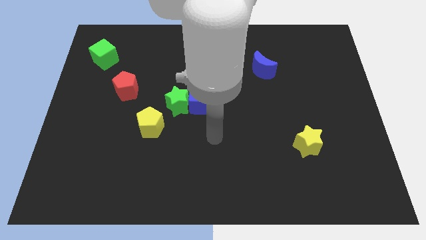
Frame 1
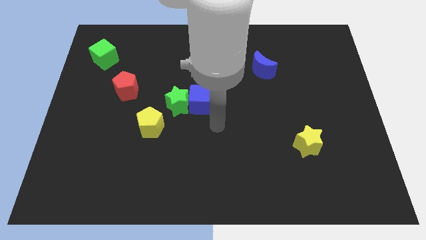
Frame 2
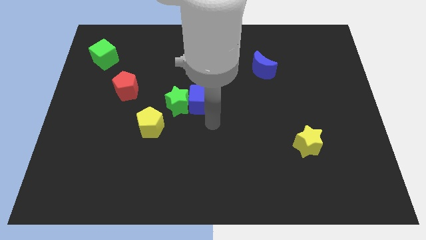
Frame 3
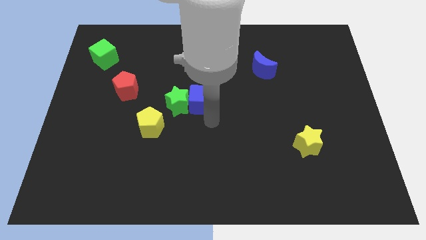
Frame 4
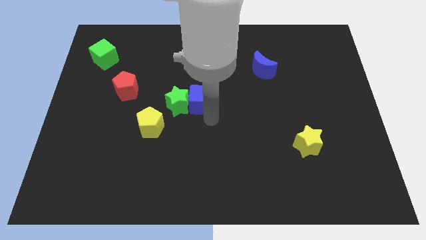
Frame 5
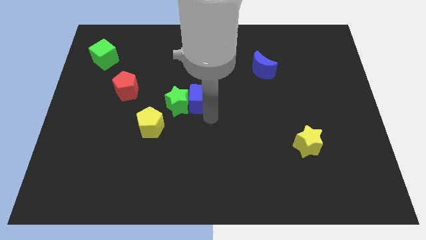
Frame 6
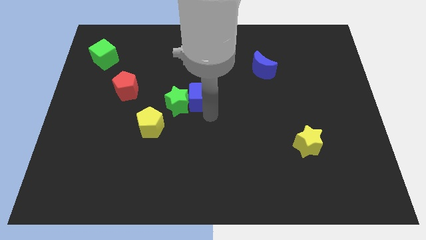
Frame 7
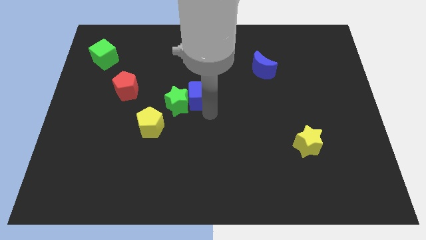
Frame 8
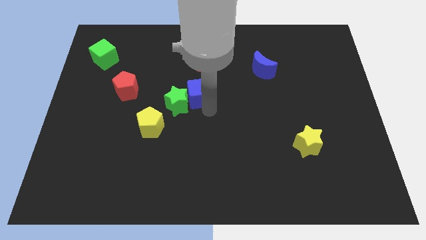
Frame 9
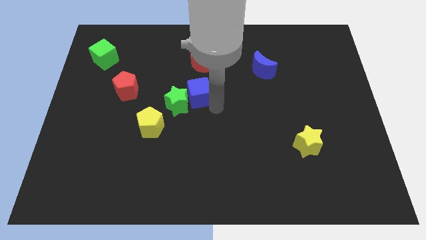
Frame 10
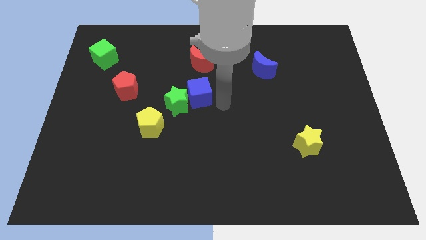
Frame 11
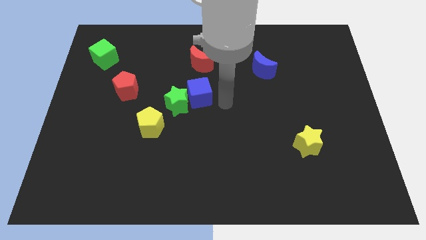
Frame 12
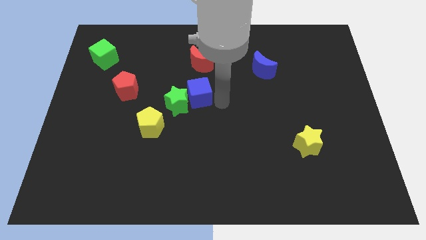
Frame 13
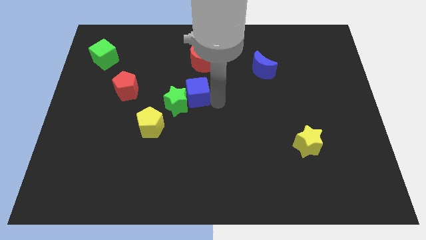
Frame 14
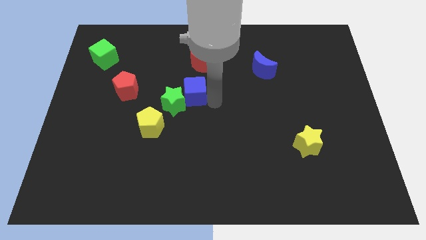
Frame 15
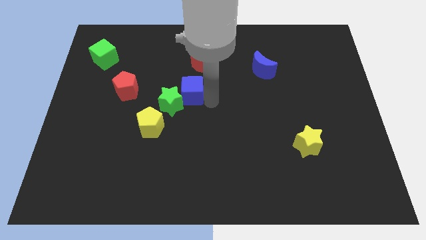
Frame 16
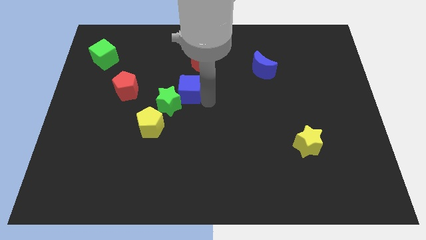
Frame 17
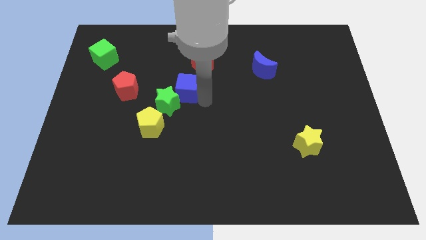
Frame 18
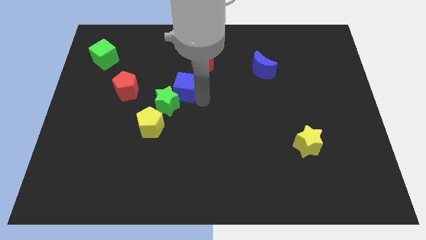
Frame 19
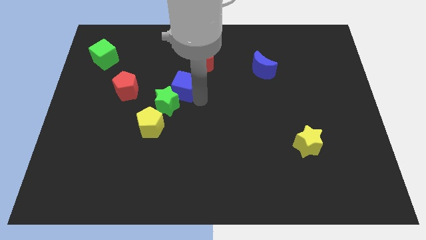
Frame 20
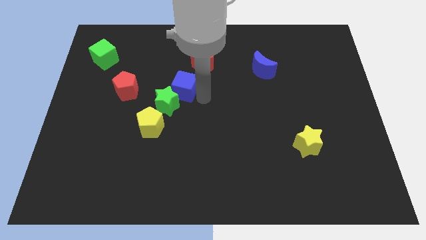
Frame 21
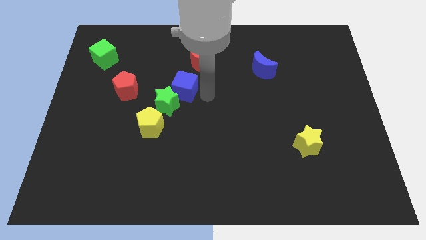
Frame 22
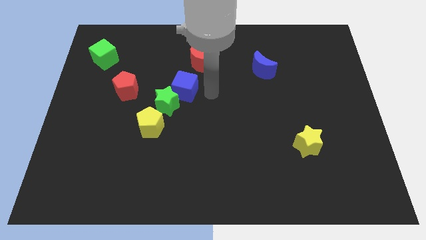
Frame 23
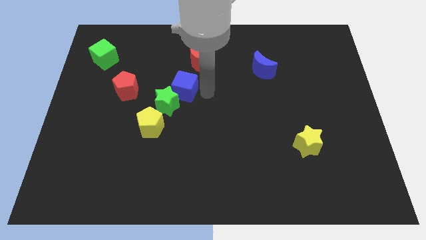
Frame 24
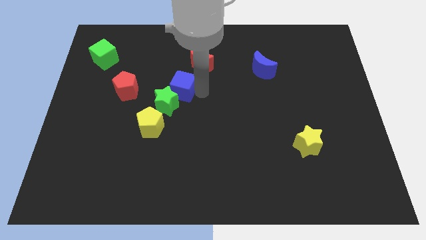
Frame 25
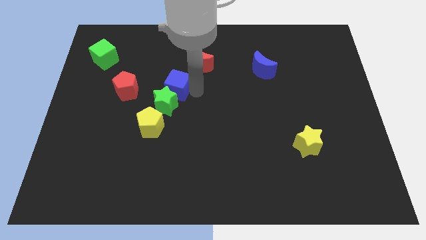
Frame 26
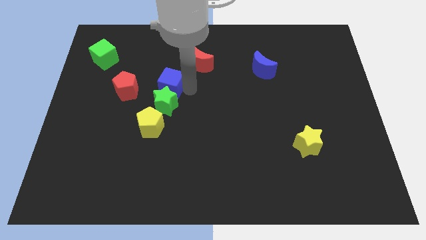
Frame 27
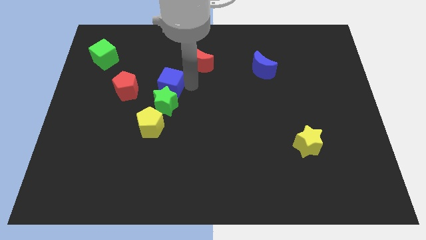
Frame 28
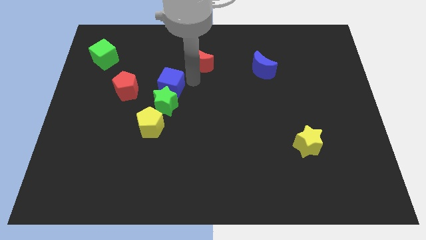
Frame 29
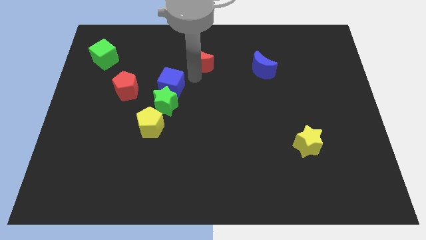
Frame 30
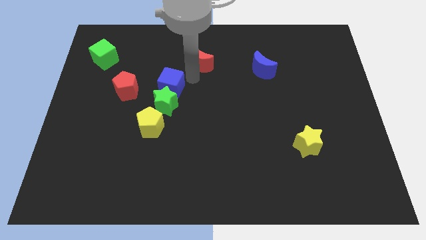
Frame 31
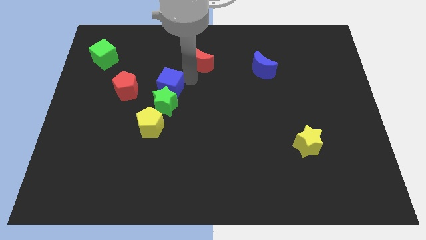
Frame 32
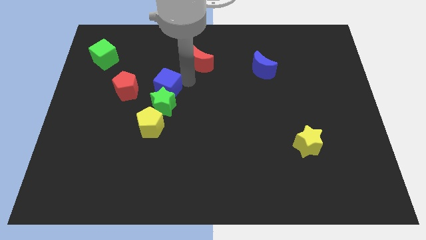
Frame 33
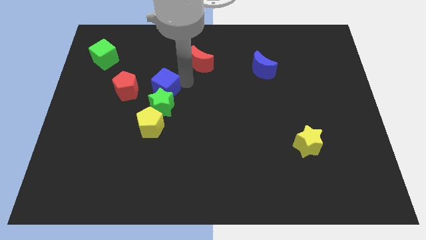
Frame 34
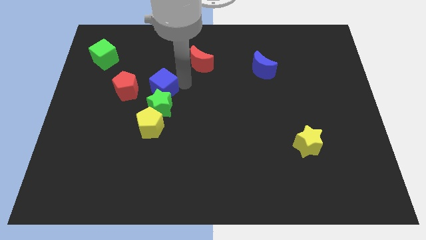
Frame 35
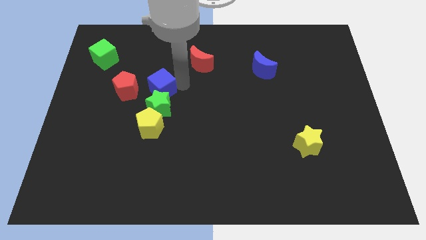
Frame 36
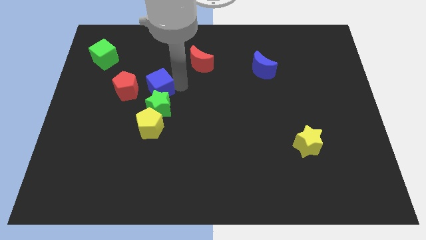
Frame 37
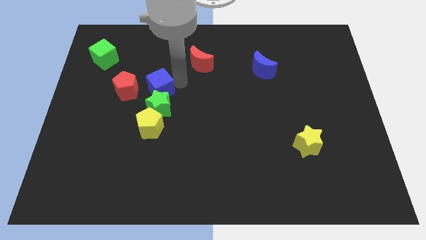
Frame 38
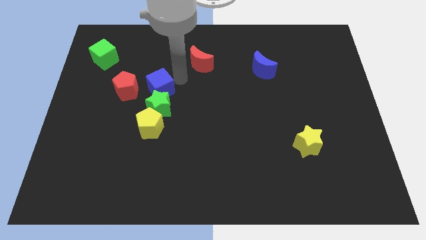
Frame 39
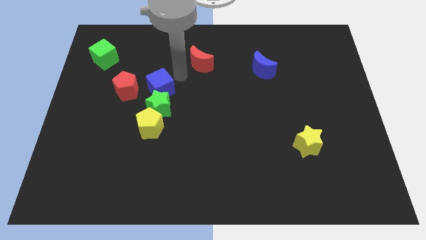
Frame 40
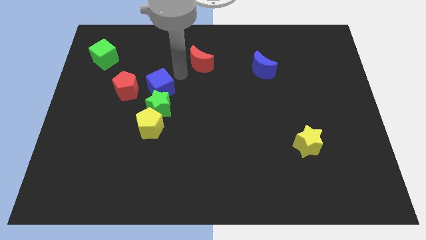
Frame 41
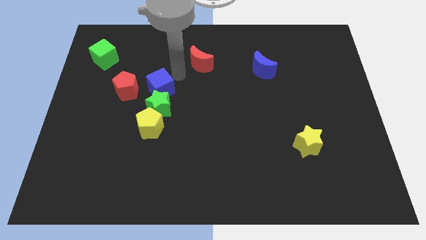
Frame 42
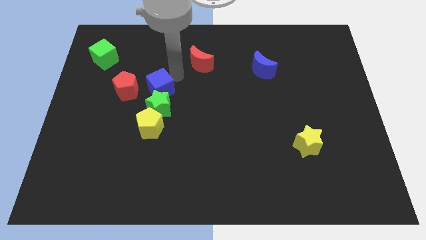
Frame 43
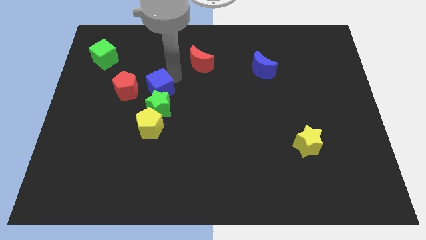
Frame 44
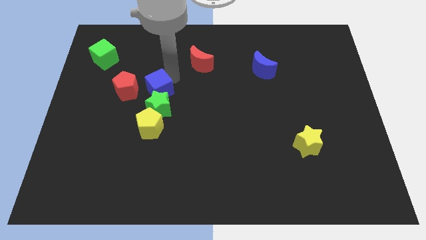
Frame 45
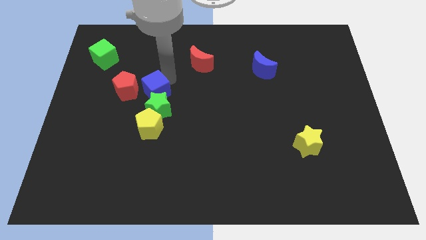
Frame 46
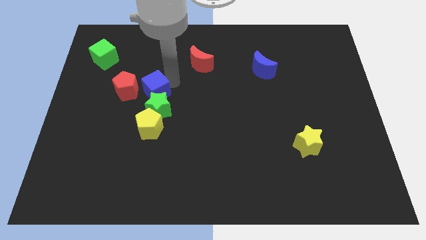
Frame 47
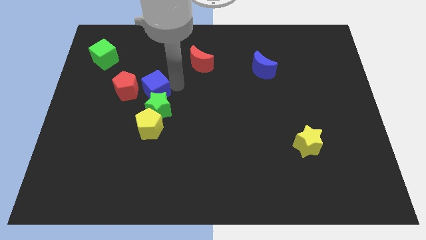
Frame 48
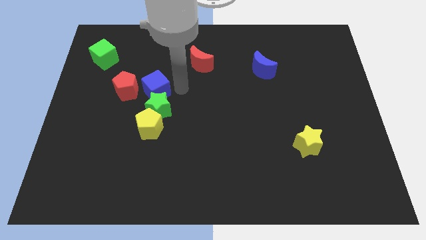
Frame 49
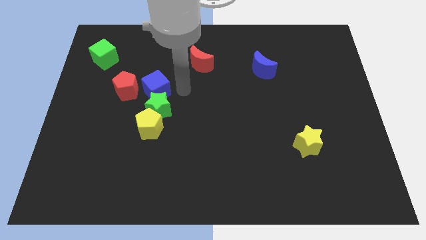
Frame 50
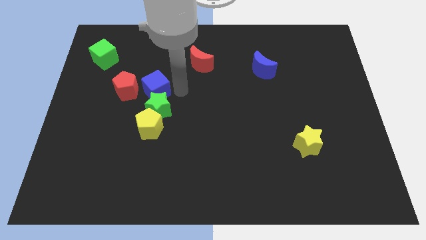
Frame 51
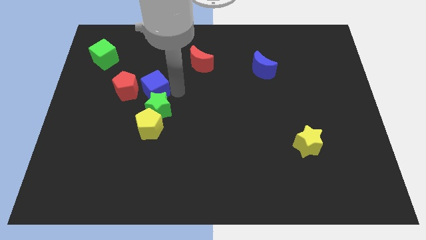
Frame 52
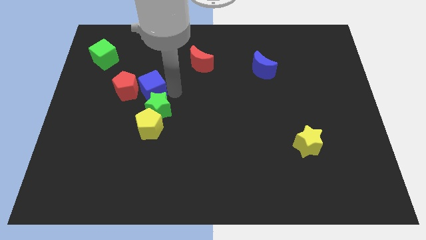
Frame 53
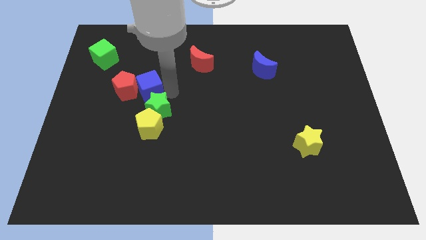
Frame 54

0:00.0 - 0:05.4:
put the blue cube towards the red pentagon

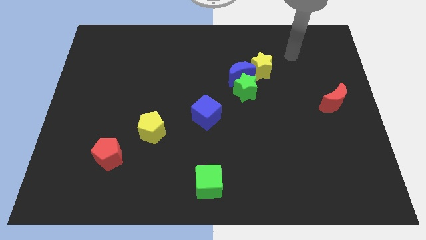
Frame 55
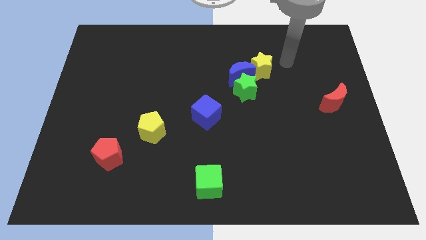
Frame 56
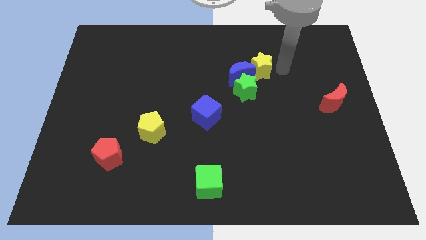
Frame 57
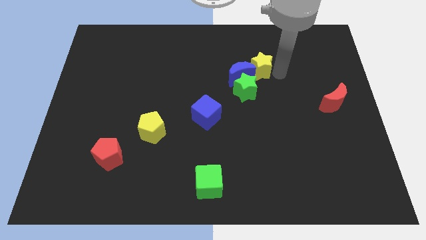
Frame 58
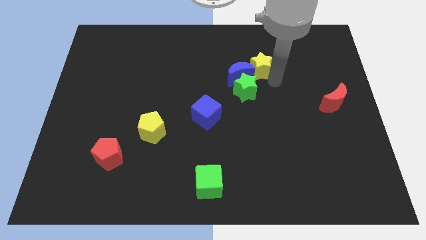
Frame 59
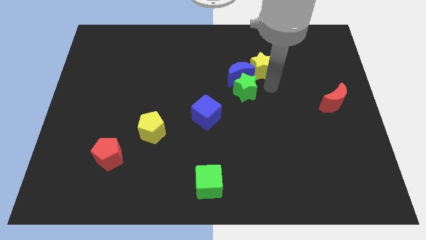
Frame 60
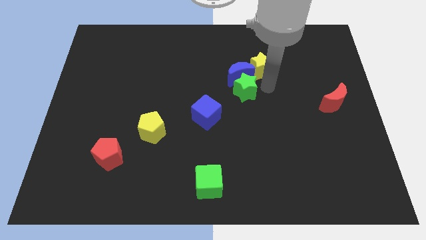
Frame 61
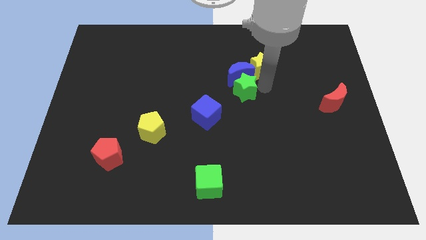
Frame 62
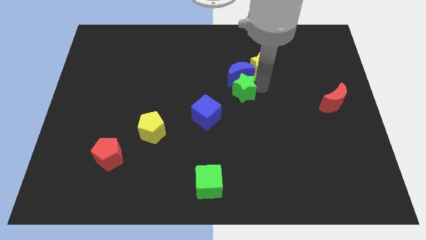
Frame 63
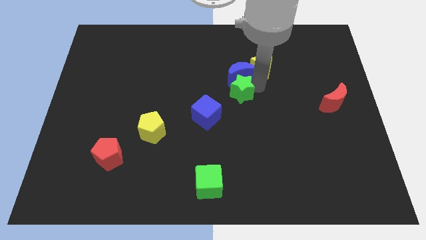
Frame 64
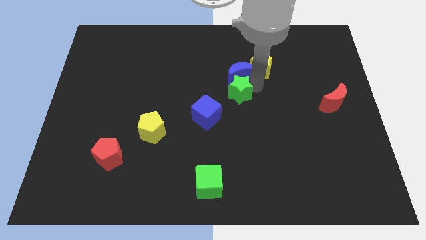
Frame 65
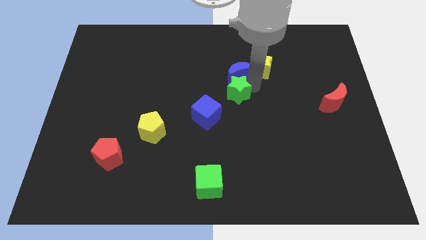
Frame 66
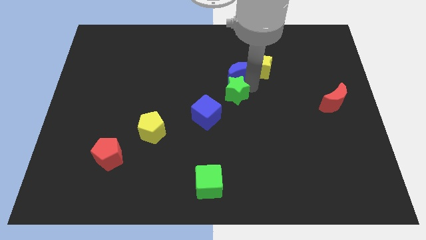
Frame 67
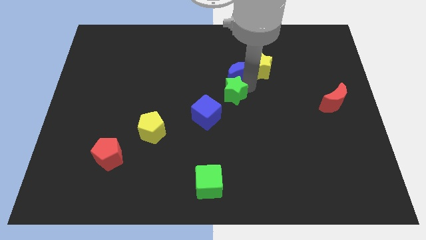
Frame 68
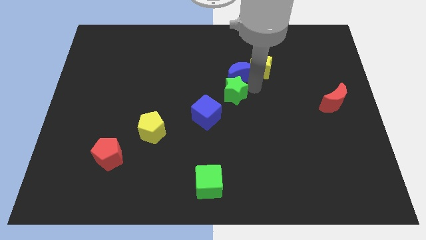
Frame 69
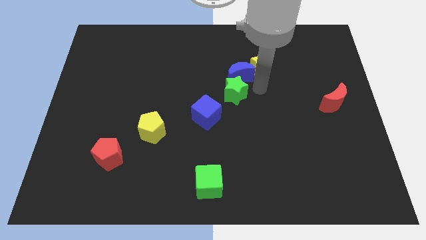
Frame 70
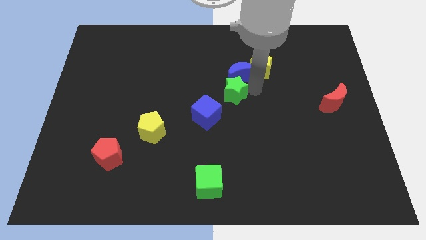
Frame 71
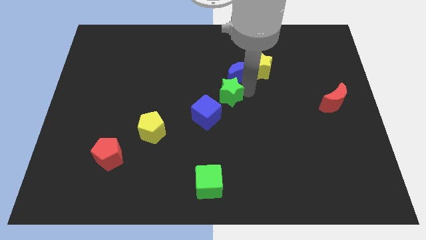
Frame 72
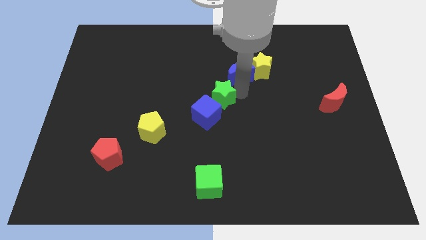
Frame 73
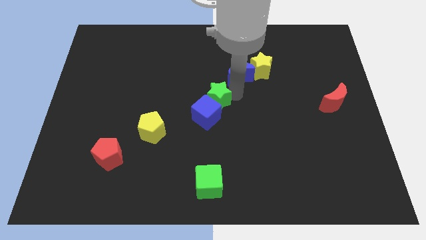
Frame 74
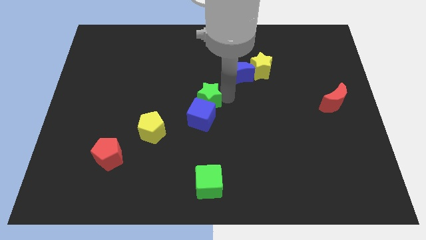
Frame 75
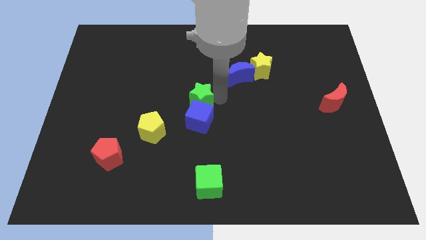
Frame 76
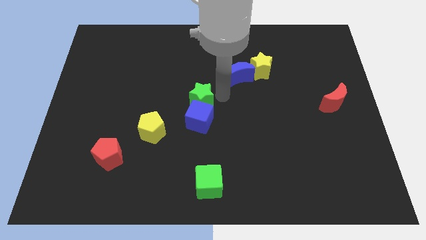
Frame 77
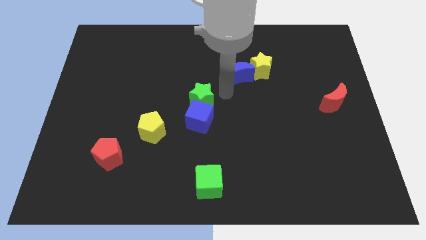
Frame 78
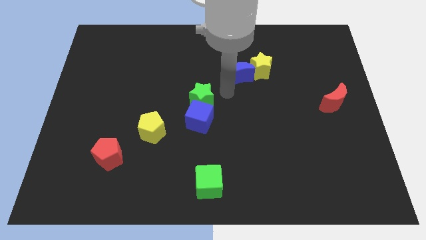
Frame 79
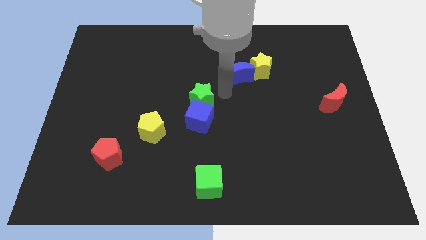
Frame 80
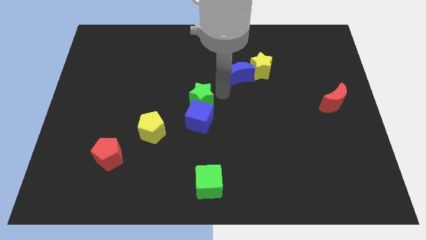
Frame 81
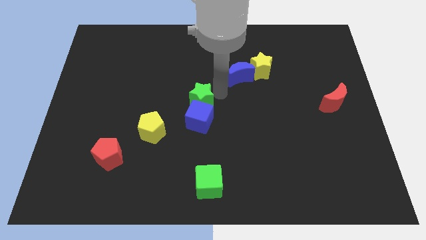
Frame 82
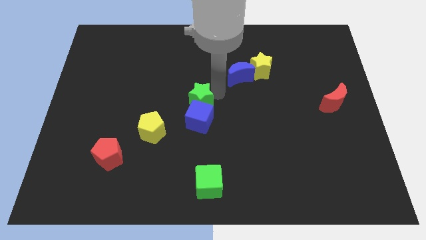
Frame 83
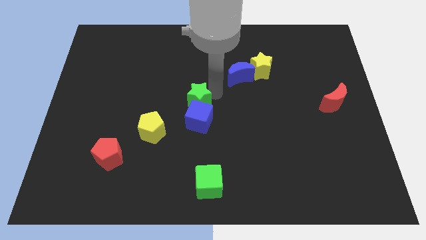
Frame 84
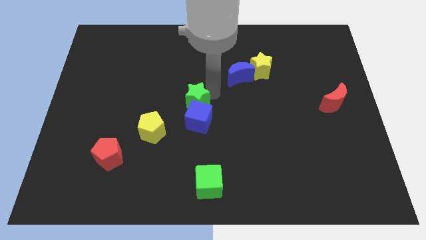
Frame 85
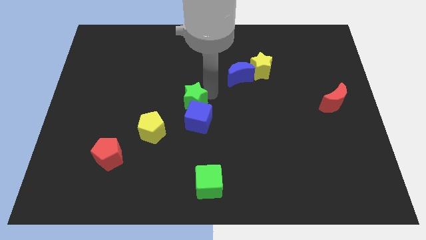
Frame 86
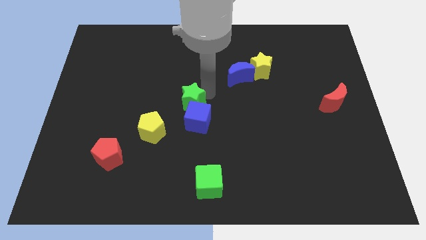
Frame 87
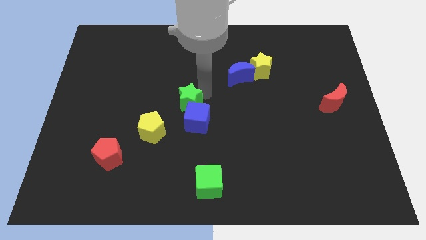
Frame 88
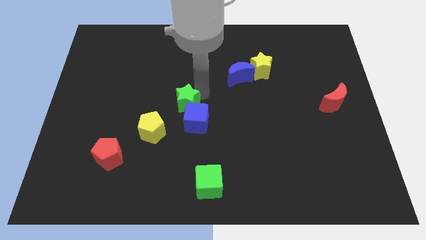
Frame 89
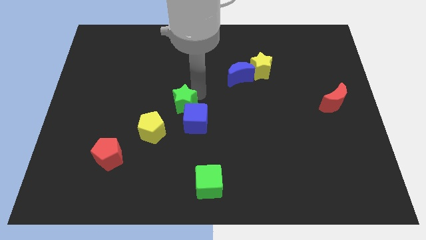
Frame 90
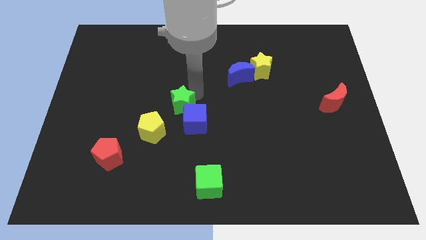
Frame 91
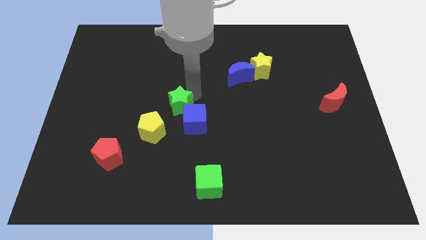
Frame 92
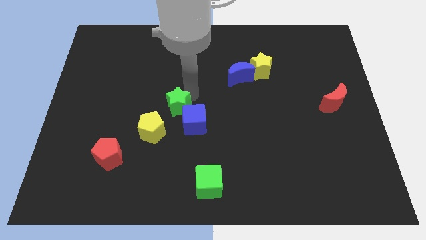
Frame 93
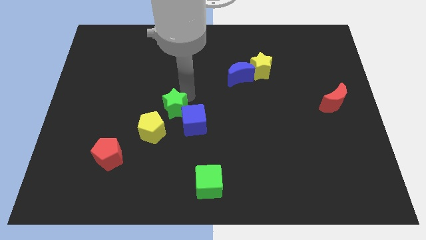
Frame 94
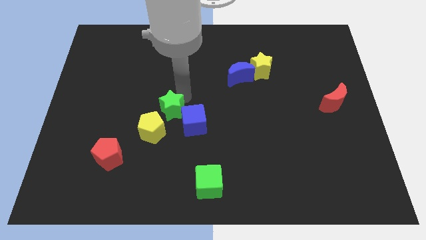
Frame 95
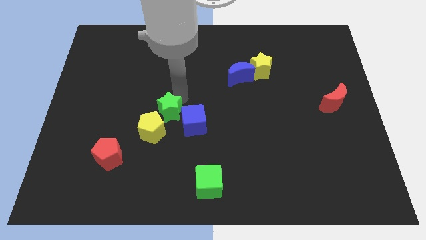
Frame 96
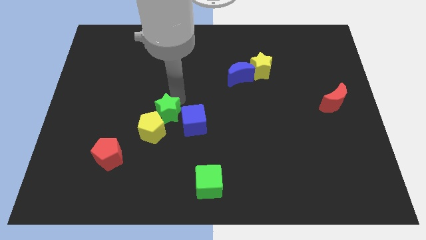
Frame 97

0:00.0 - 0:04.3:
slide the green star towards the yellow pentagon
